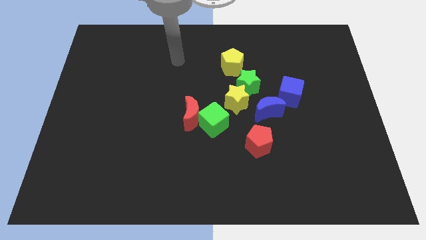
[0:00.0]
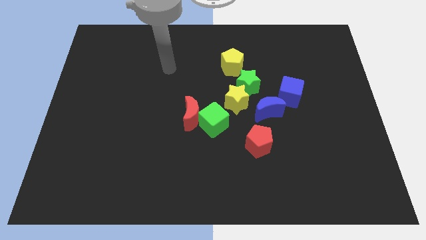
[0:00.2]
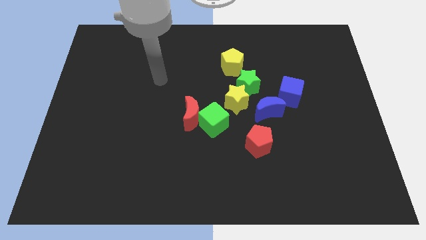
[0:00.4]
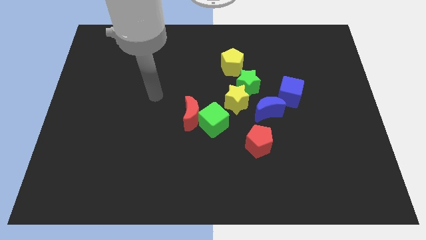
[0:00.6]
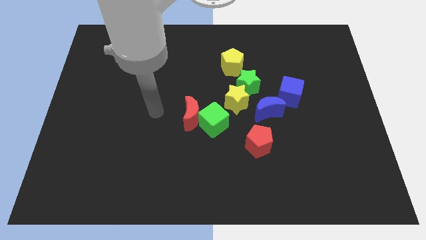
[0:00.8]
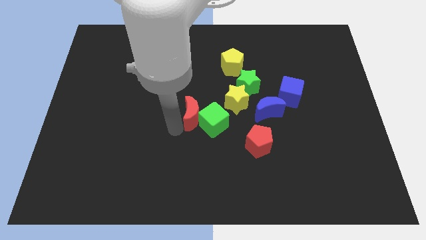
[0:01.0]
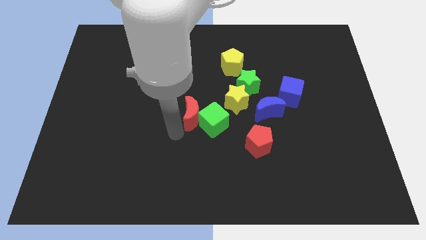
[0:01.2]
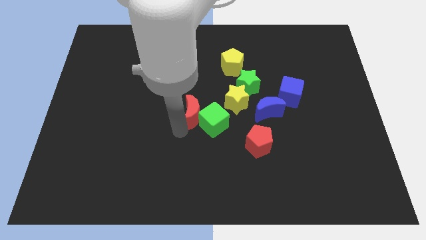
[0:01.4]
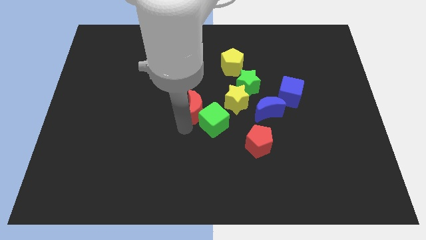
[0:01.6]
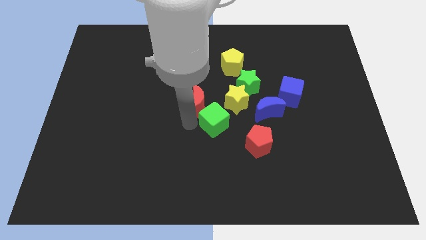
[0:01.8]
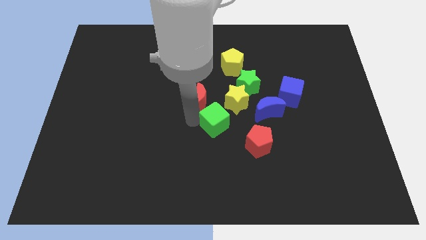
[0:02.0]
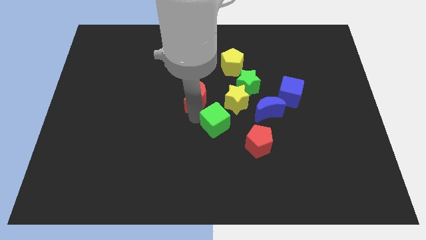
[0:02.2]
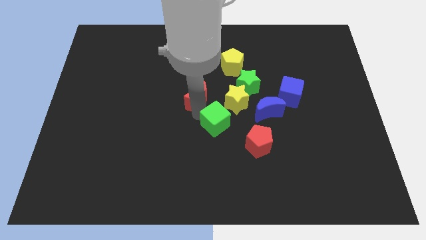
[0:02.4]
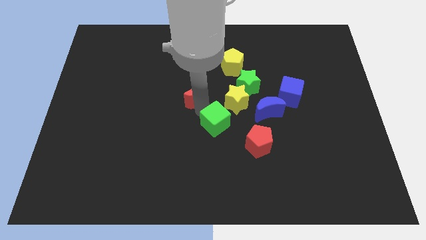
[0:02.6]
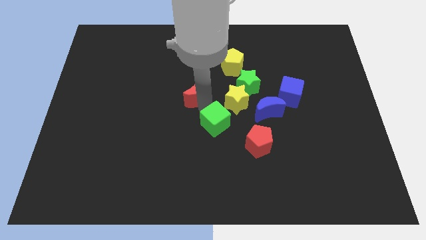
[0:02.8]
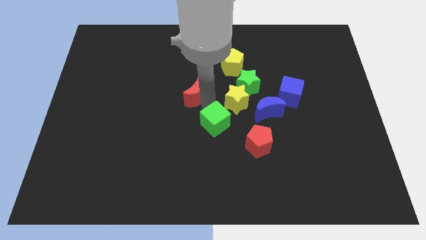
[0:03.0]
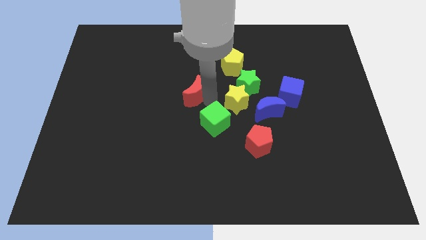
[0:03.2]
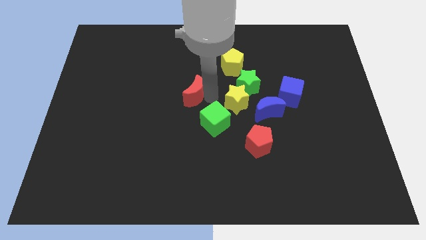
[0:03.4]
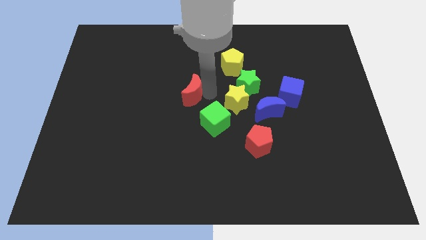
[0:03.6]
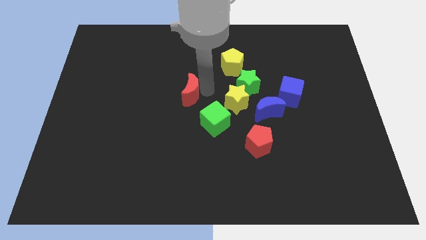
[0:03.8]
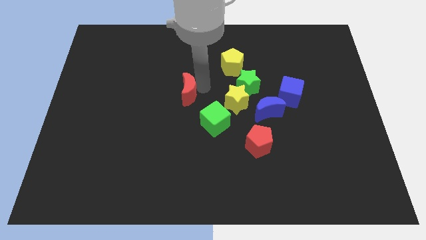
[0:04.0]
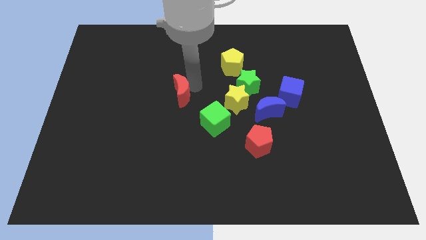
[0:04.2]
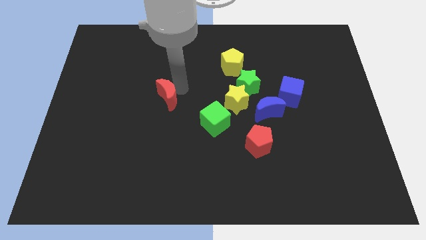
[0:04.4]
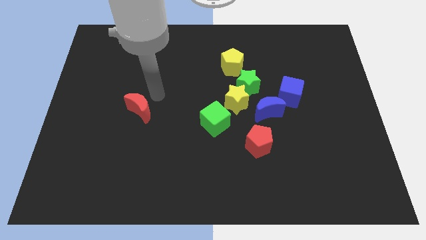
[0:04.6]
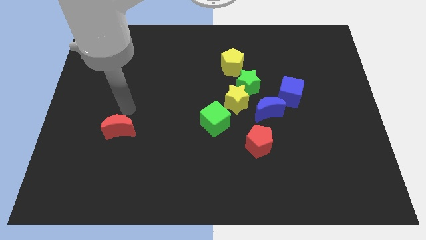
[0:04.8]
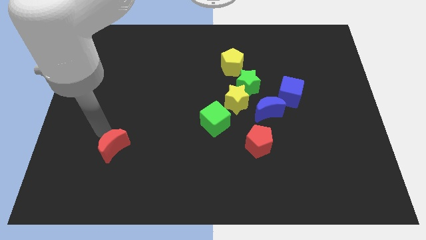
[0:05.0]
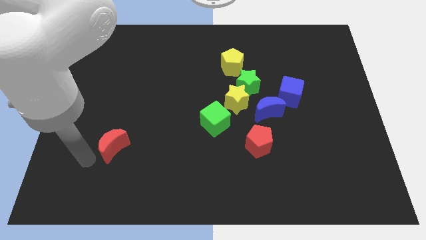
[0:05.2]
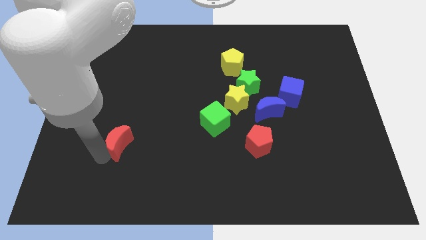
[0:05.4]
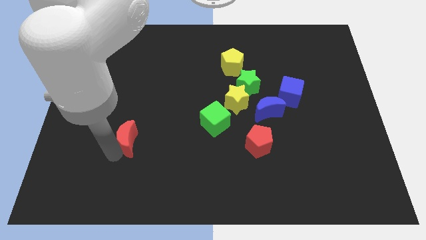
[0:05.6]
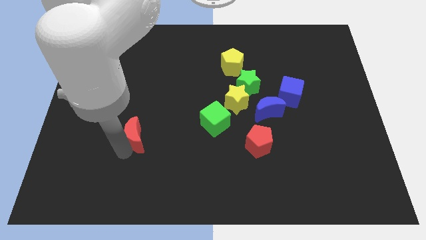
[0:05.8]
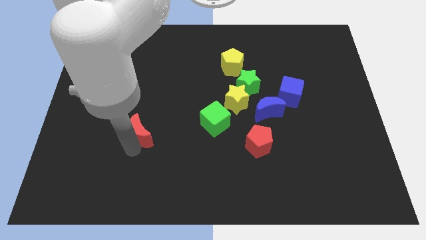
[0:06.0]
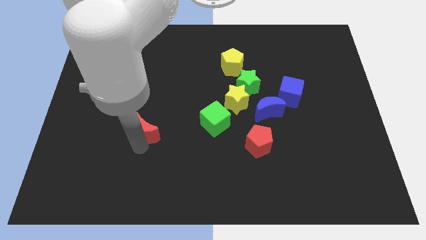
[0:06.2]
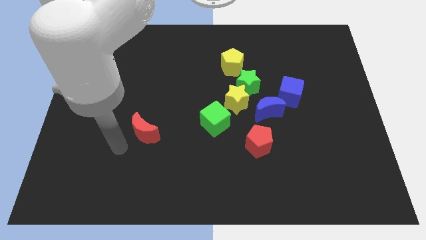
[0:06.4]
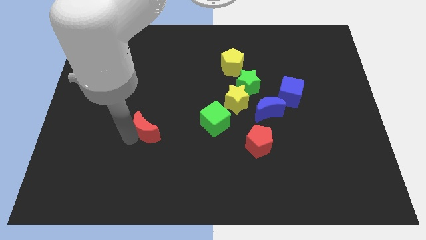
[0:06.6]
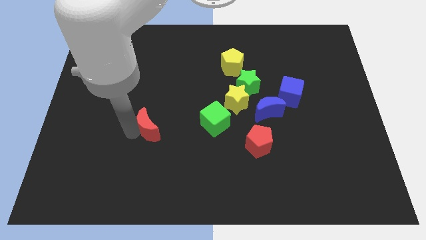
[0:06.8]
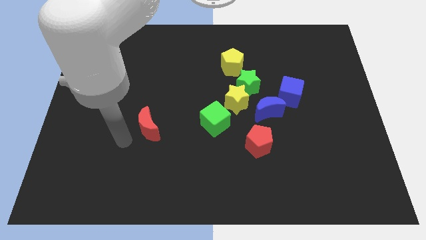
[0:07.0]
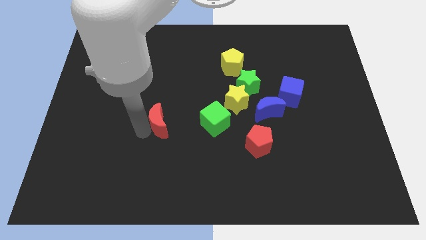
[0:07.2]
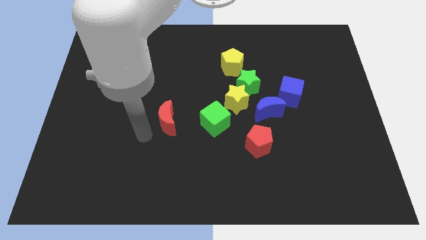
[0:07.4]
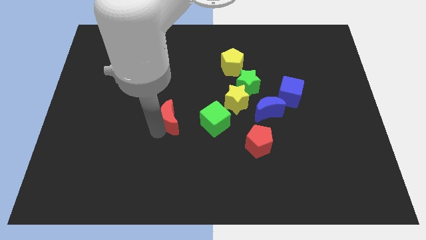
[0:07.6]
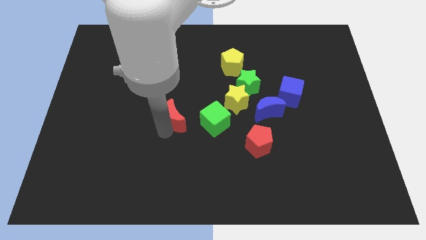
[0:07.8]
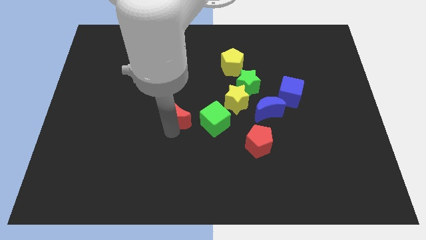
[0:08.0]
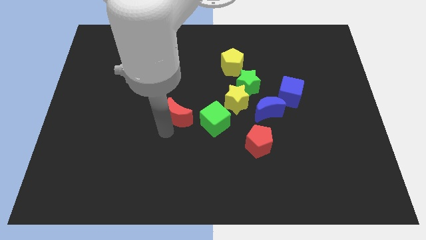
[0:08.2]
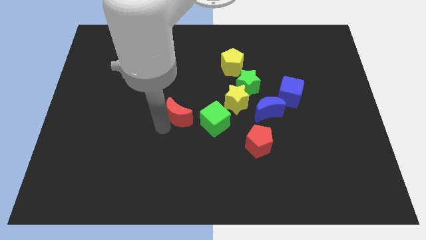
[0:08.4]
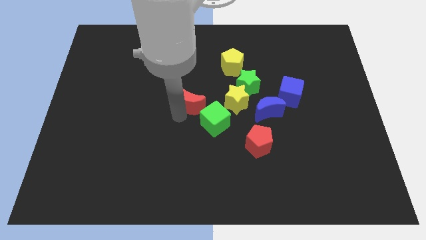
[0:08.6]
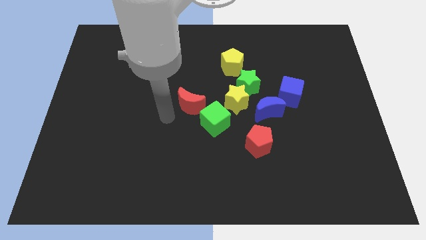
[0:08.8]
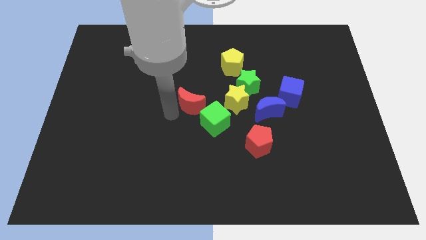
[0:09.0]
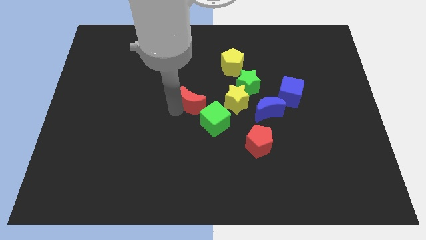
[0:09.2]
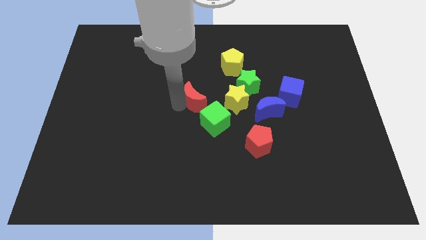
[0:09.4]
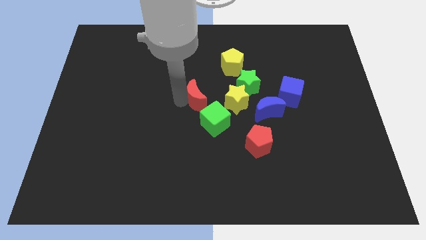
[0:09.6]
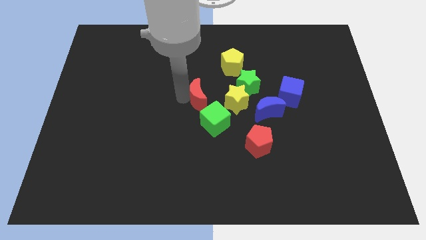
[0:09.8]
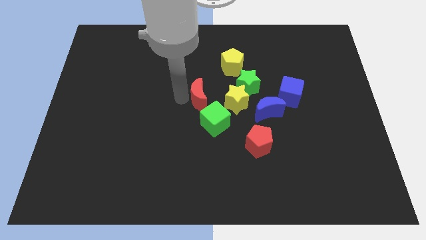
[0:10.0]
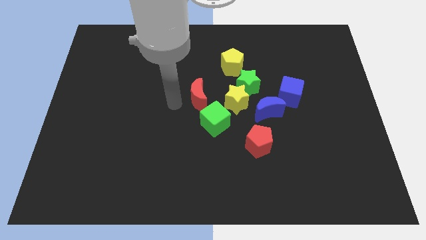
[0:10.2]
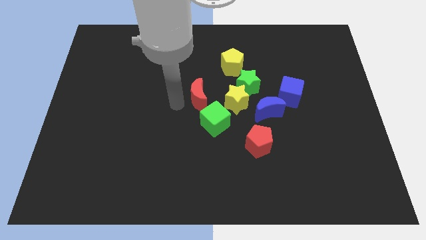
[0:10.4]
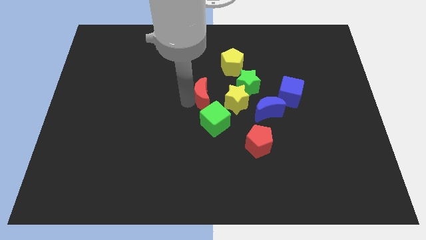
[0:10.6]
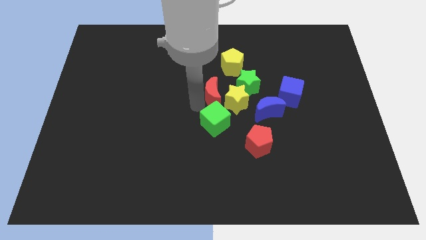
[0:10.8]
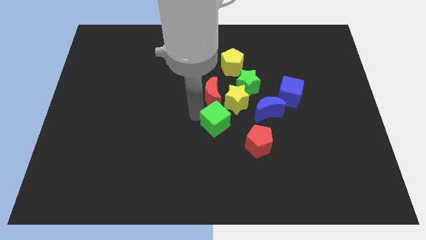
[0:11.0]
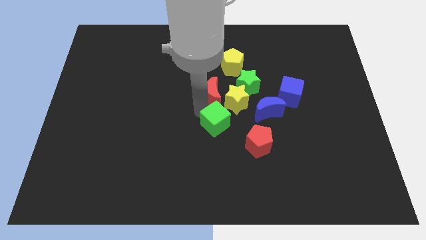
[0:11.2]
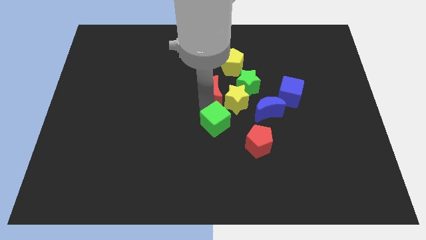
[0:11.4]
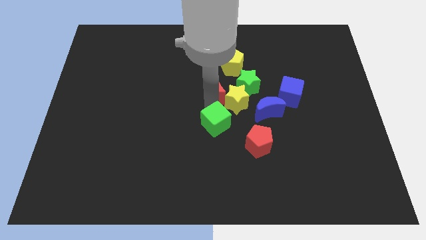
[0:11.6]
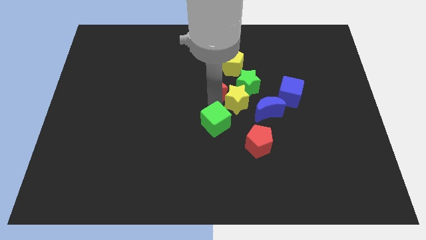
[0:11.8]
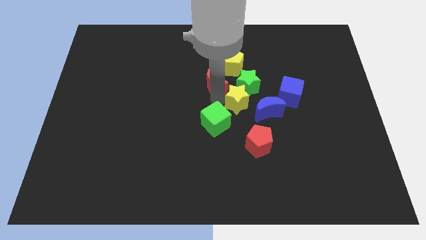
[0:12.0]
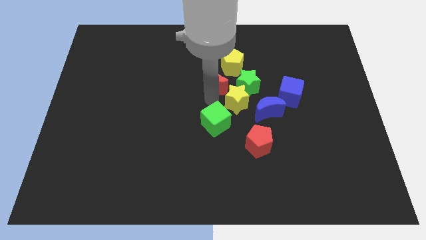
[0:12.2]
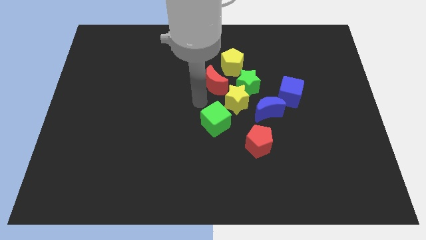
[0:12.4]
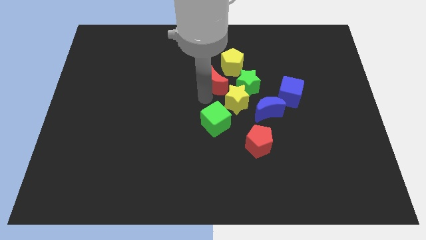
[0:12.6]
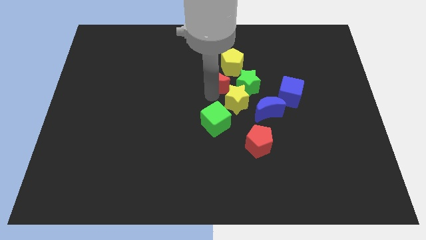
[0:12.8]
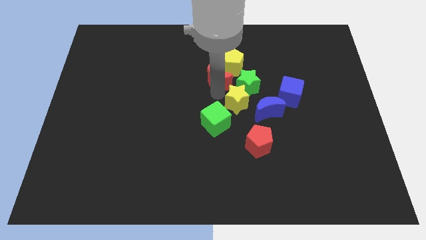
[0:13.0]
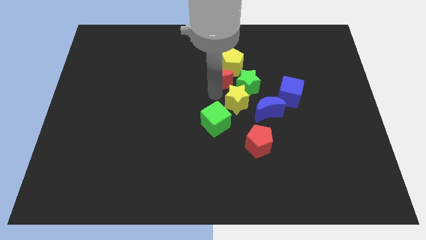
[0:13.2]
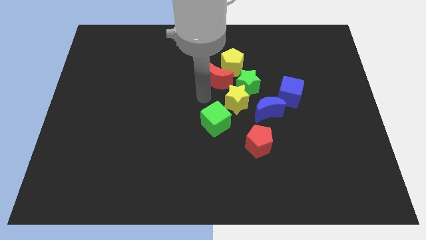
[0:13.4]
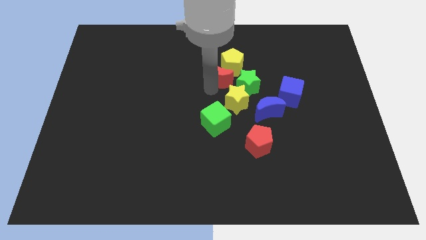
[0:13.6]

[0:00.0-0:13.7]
move the red moon to the yellow pentagon

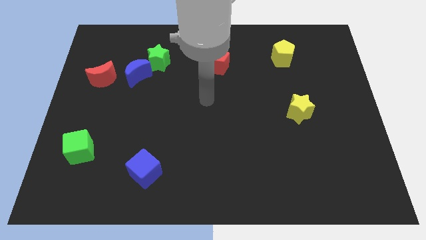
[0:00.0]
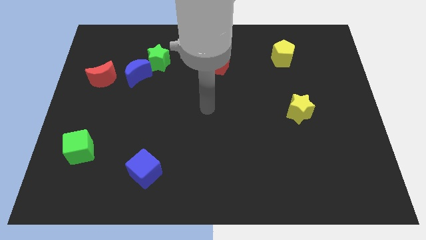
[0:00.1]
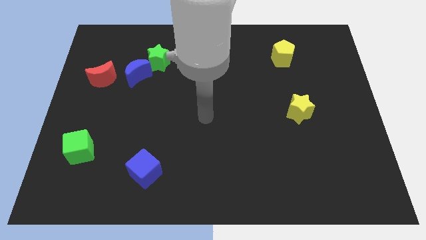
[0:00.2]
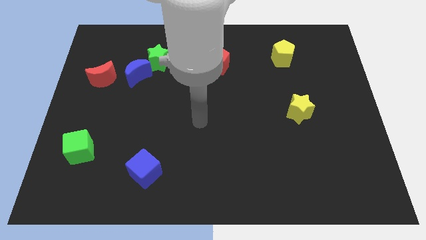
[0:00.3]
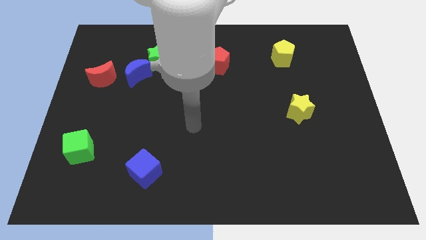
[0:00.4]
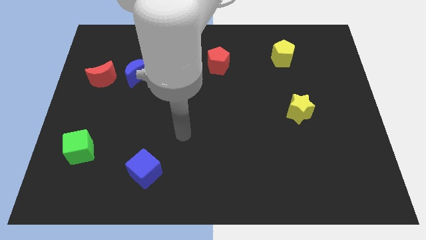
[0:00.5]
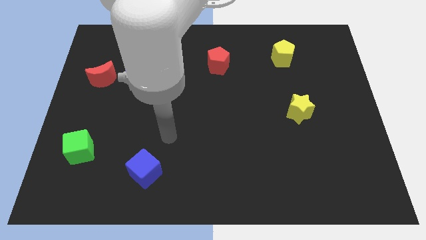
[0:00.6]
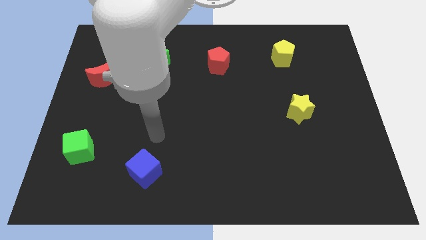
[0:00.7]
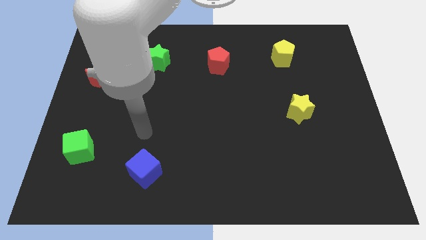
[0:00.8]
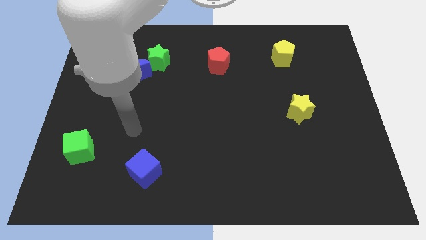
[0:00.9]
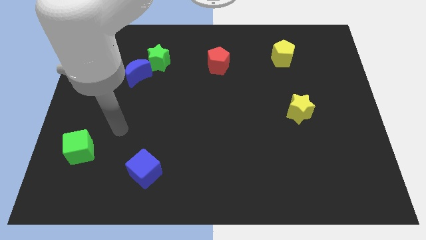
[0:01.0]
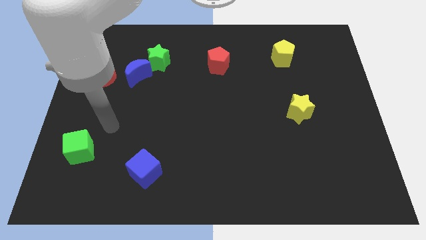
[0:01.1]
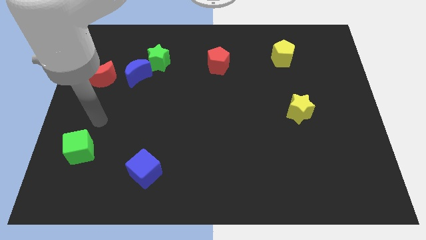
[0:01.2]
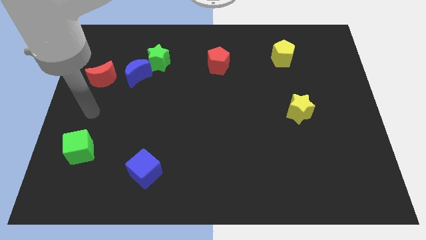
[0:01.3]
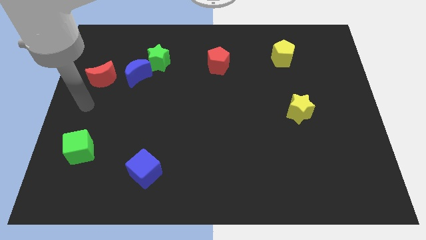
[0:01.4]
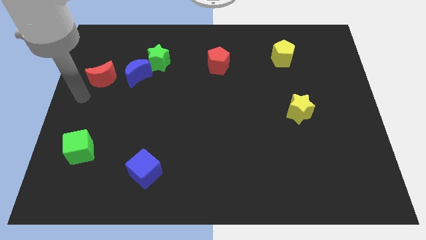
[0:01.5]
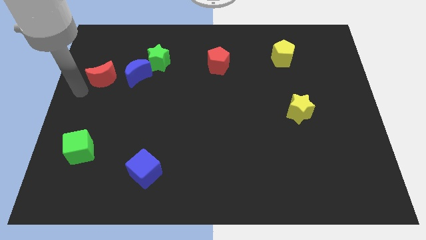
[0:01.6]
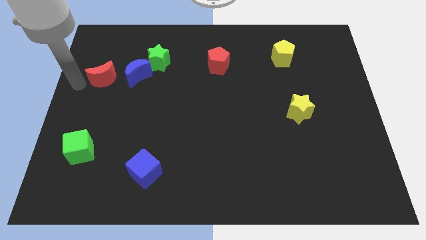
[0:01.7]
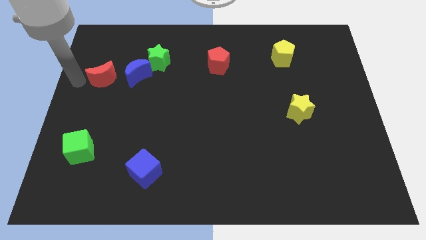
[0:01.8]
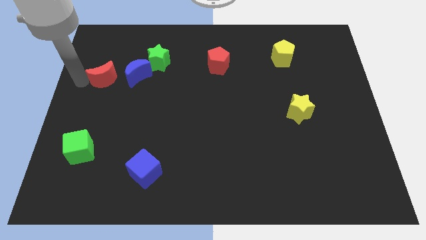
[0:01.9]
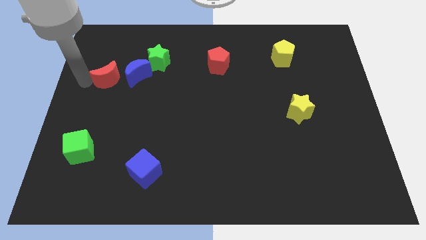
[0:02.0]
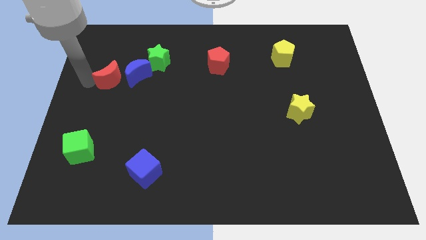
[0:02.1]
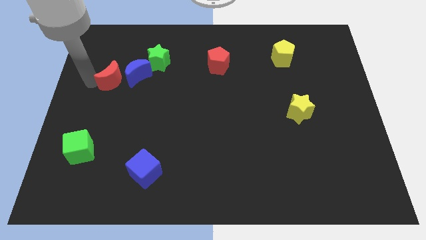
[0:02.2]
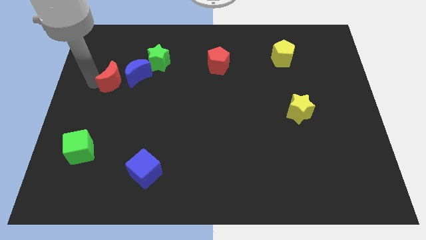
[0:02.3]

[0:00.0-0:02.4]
push the red moon close to the blue moon
